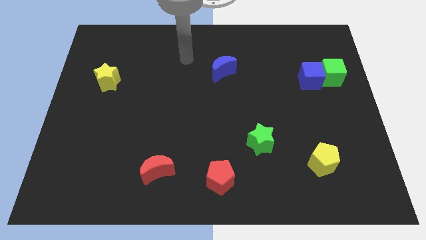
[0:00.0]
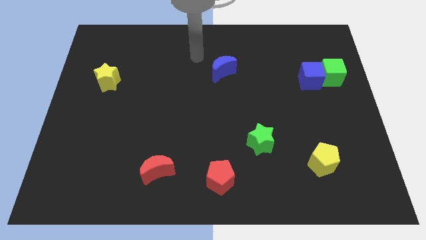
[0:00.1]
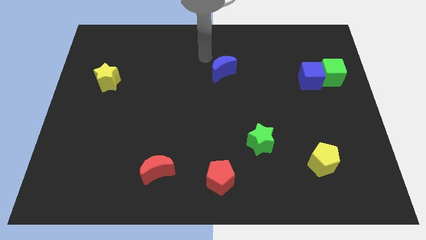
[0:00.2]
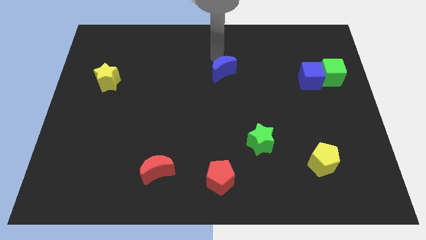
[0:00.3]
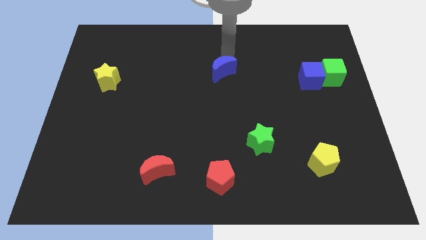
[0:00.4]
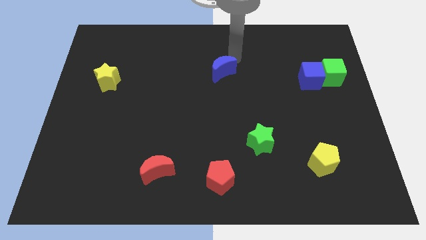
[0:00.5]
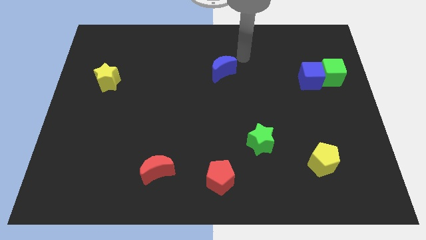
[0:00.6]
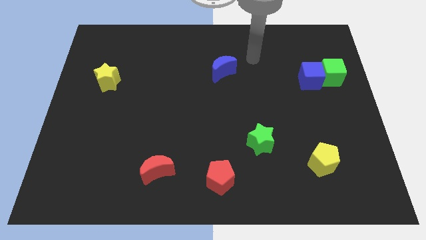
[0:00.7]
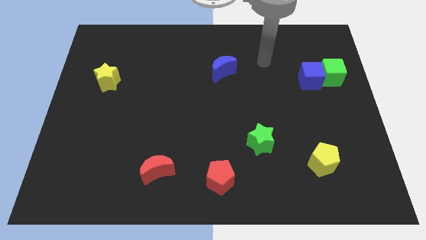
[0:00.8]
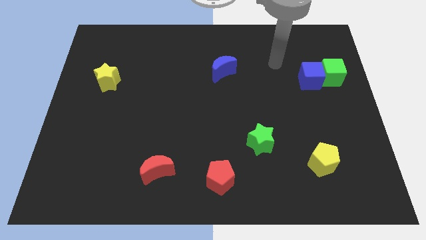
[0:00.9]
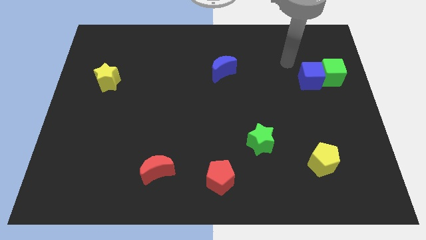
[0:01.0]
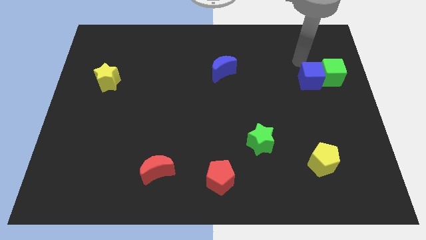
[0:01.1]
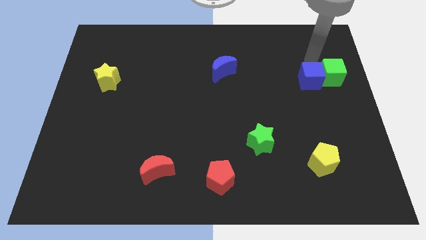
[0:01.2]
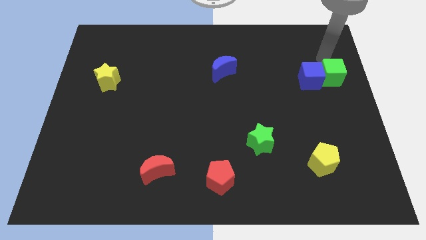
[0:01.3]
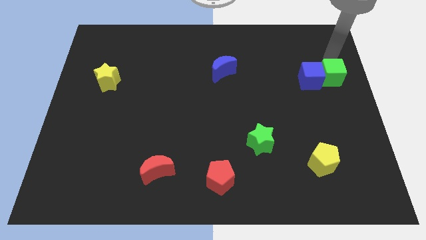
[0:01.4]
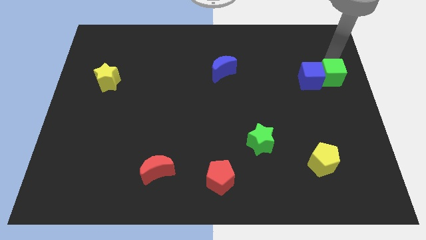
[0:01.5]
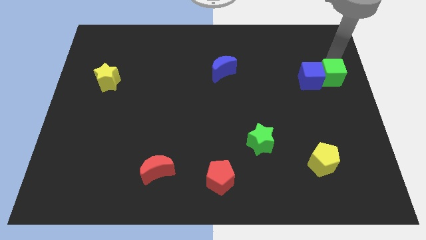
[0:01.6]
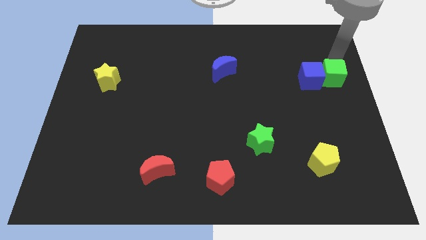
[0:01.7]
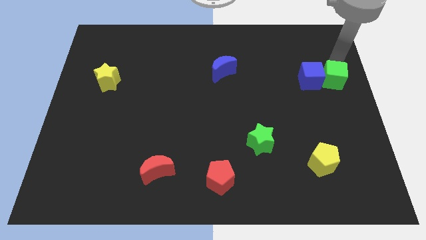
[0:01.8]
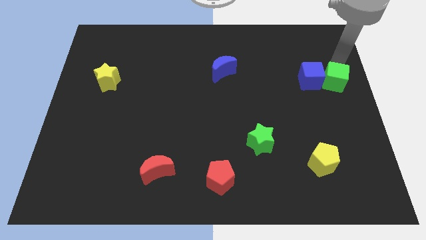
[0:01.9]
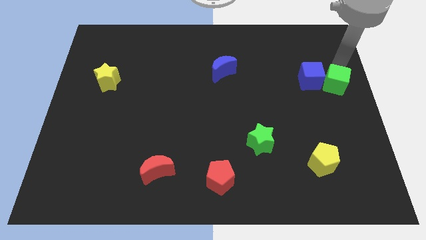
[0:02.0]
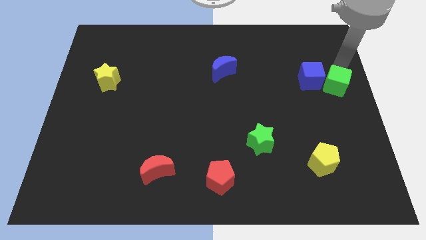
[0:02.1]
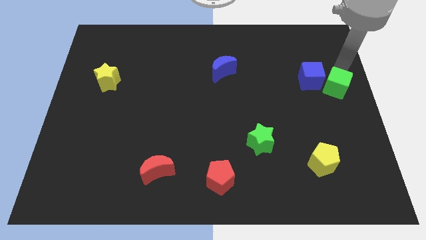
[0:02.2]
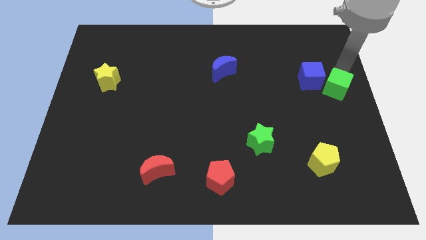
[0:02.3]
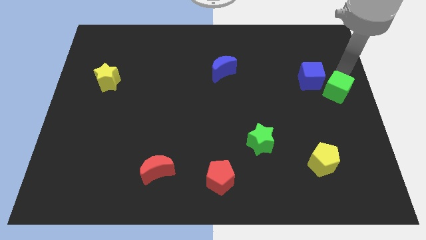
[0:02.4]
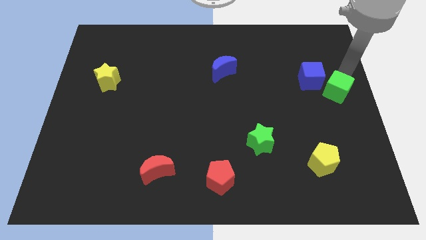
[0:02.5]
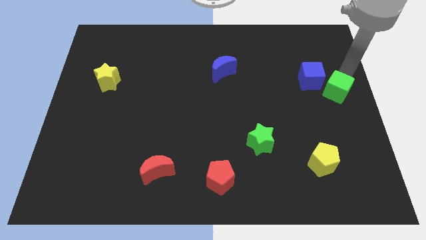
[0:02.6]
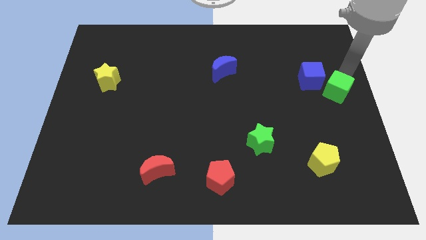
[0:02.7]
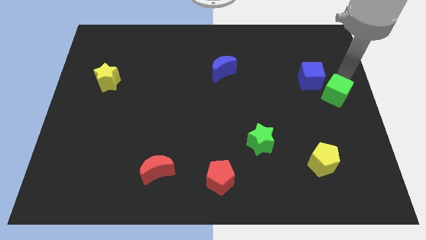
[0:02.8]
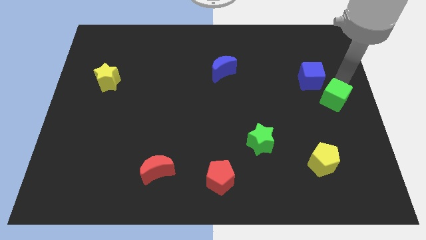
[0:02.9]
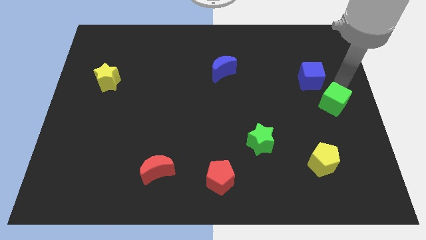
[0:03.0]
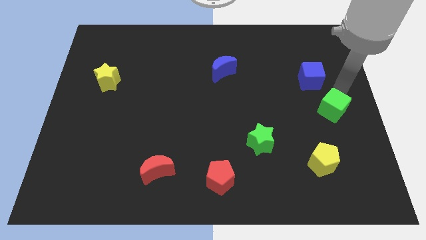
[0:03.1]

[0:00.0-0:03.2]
slightly slide the green cube downwards and then left

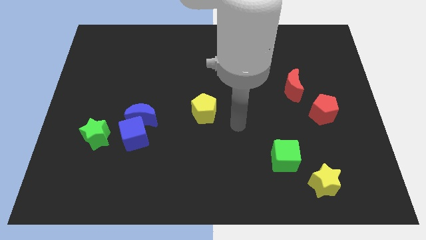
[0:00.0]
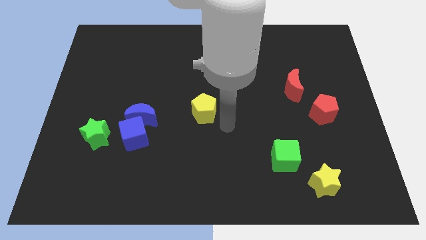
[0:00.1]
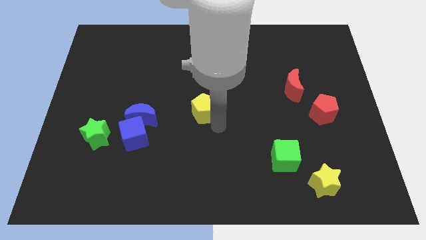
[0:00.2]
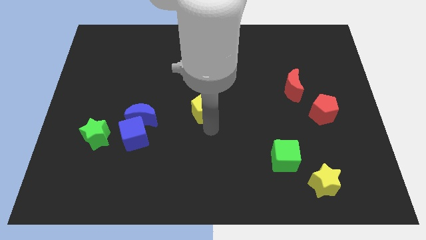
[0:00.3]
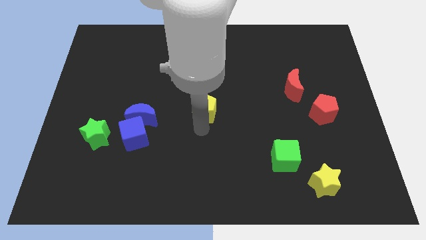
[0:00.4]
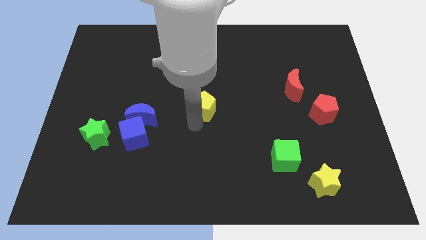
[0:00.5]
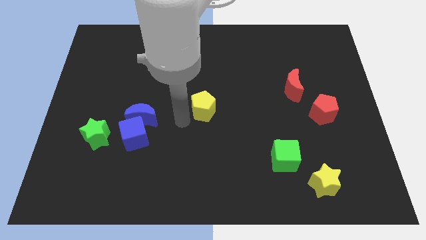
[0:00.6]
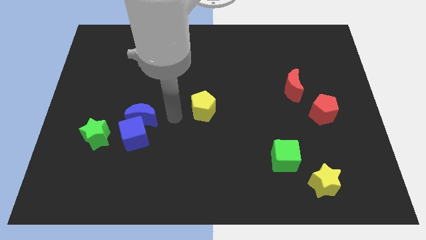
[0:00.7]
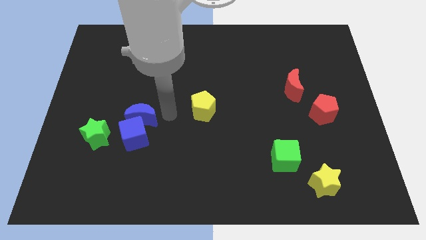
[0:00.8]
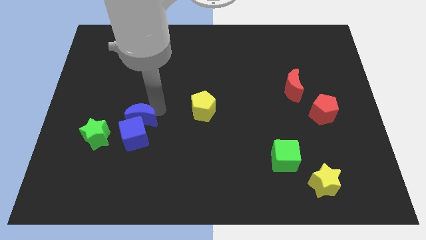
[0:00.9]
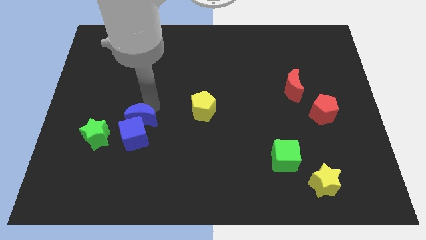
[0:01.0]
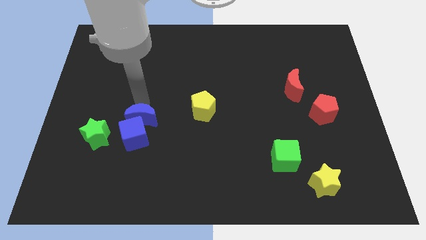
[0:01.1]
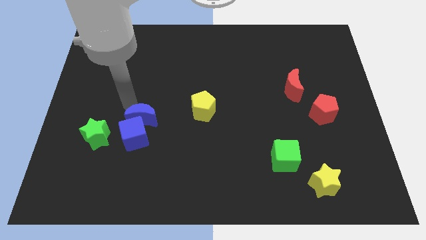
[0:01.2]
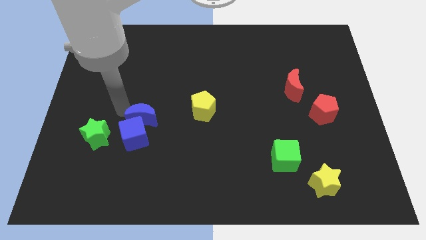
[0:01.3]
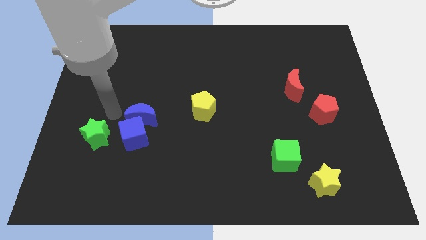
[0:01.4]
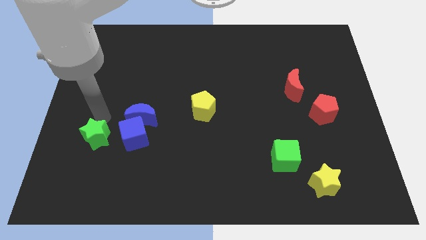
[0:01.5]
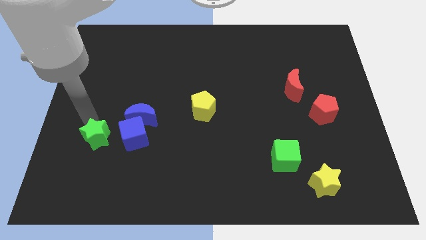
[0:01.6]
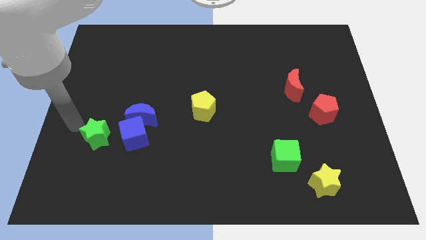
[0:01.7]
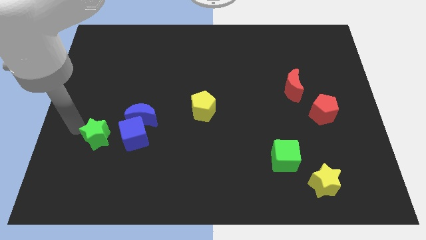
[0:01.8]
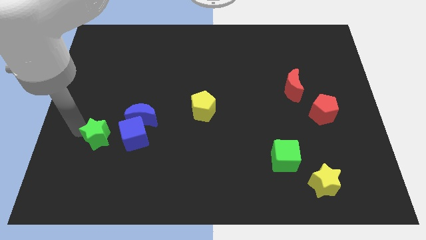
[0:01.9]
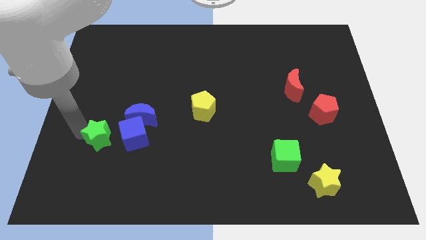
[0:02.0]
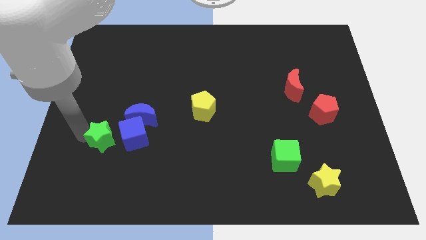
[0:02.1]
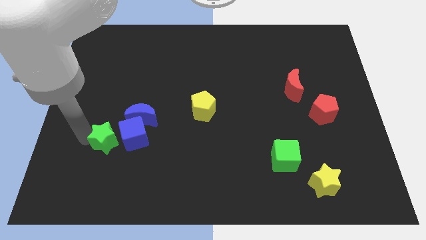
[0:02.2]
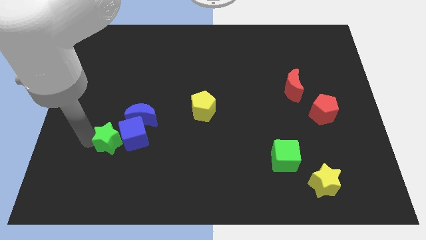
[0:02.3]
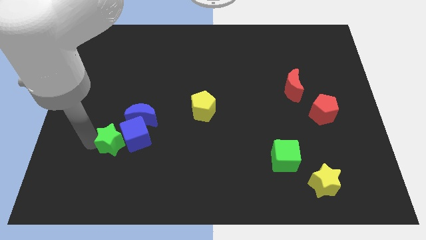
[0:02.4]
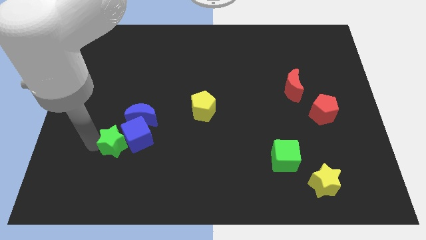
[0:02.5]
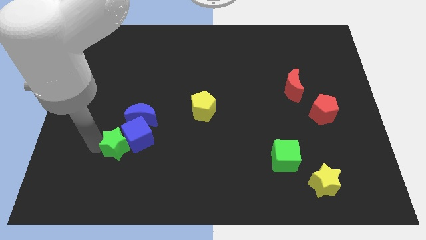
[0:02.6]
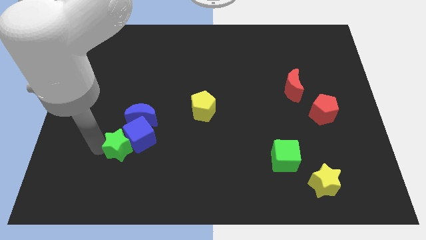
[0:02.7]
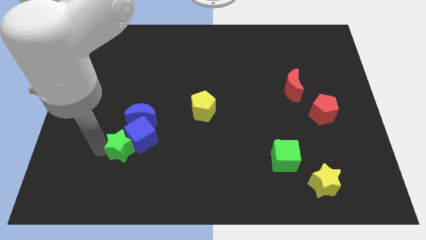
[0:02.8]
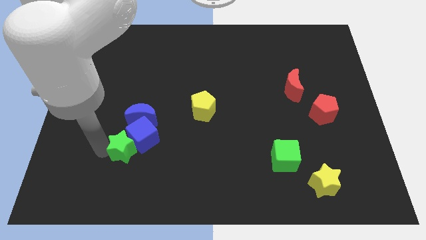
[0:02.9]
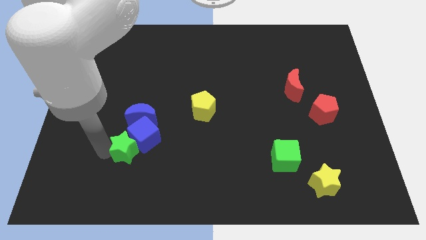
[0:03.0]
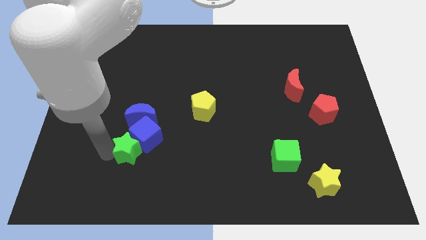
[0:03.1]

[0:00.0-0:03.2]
push the green star a little right

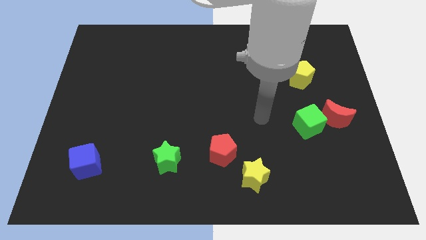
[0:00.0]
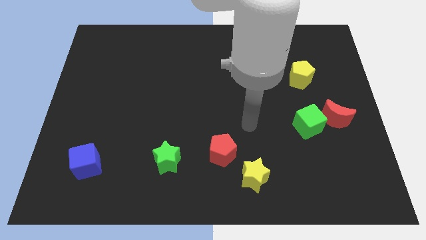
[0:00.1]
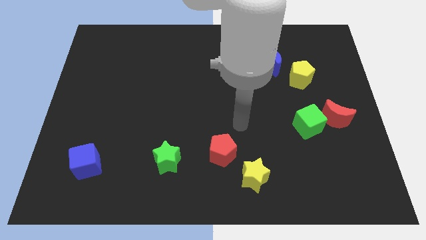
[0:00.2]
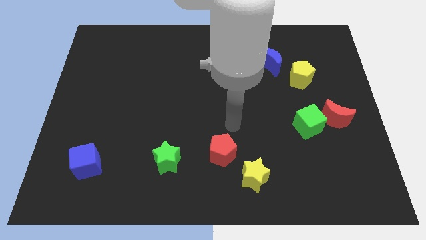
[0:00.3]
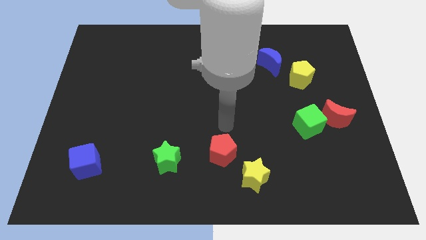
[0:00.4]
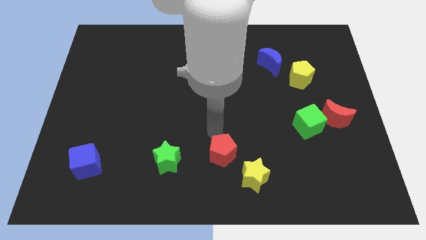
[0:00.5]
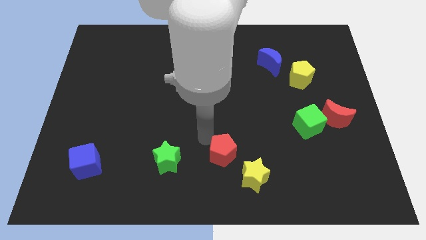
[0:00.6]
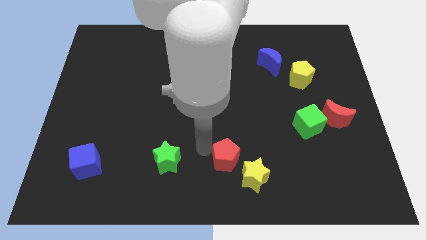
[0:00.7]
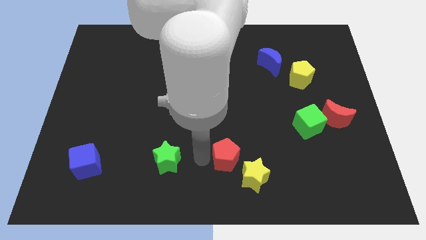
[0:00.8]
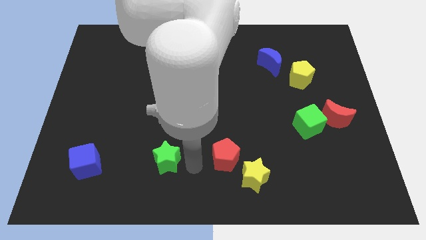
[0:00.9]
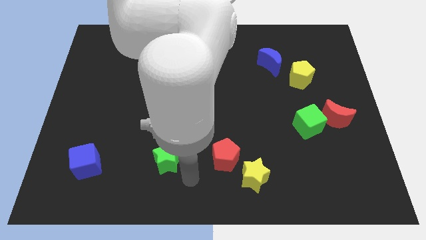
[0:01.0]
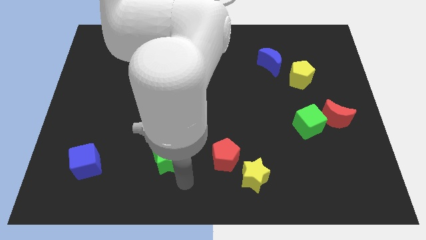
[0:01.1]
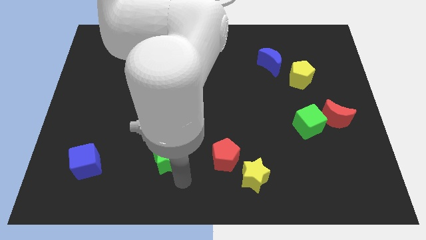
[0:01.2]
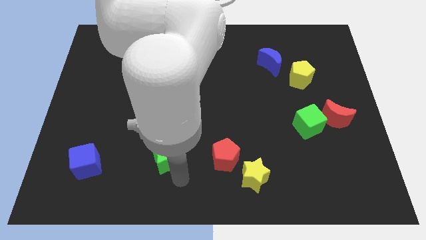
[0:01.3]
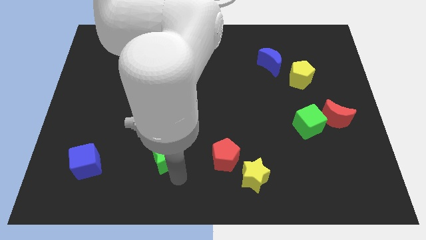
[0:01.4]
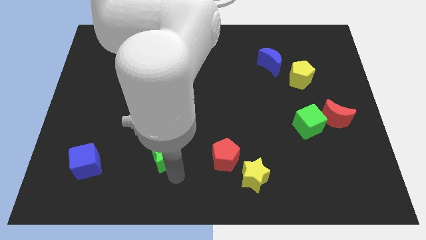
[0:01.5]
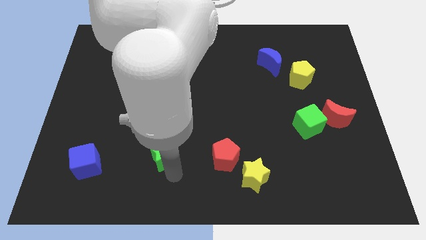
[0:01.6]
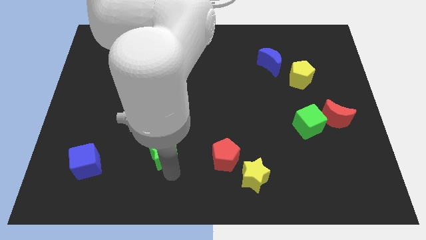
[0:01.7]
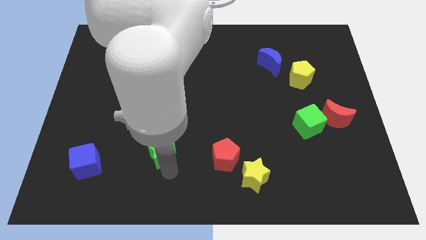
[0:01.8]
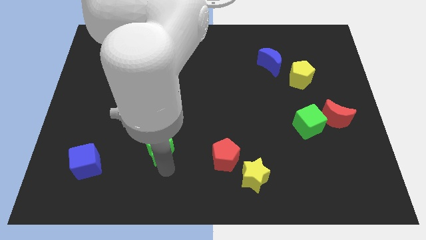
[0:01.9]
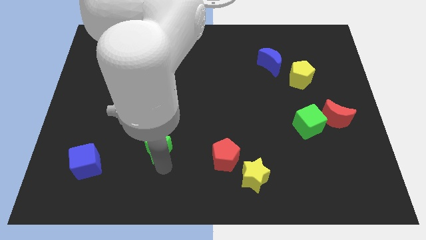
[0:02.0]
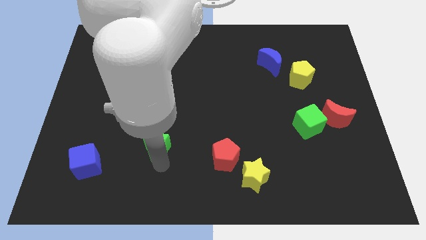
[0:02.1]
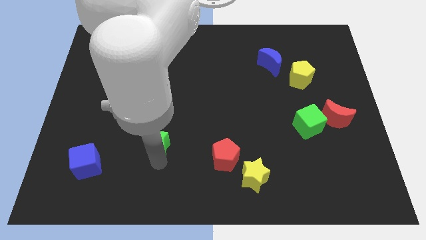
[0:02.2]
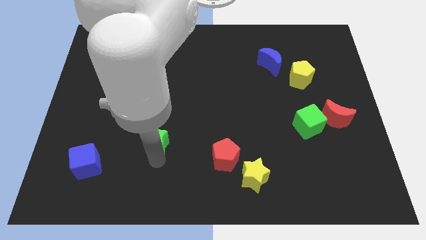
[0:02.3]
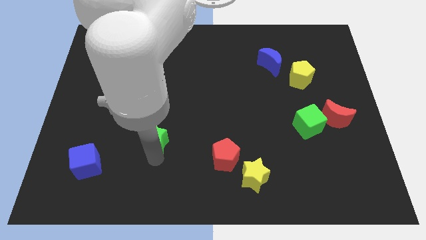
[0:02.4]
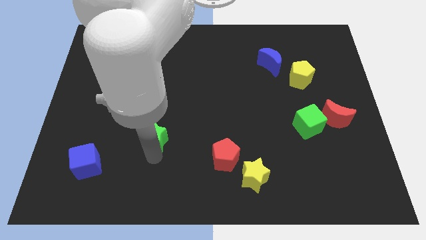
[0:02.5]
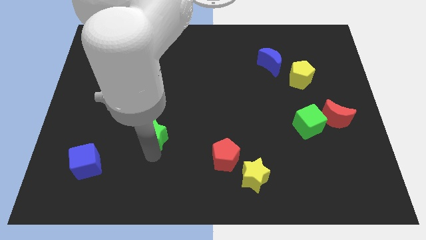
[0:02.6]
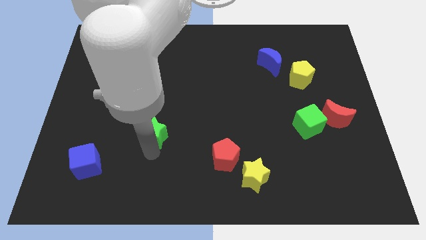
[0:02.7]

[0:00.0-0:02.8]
push the green star a little up and then left
